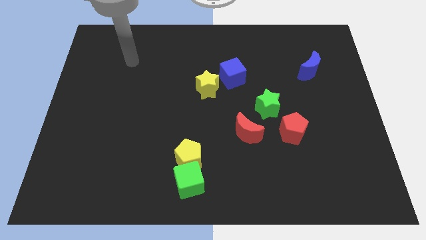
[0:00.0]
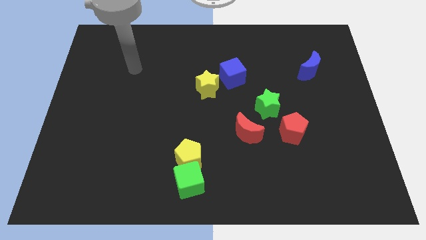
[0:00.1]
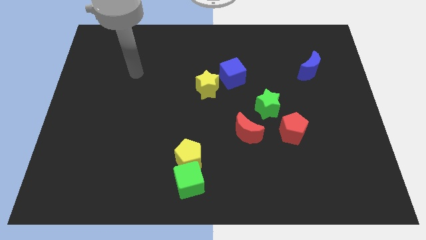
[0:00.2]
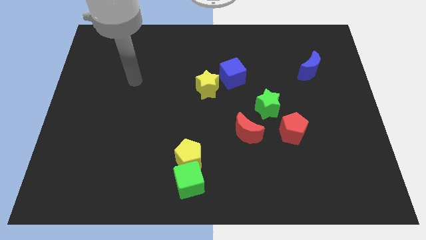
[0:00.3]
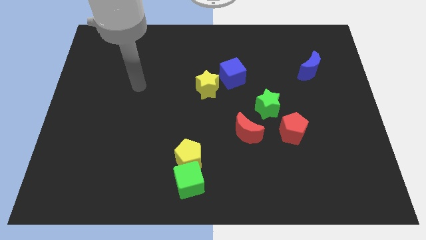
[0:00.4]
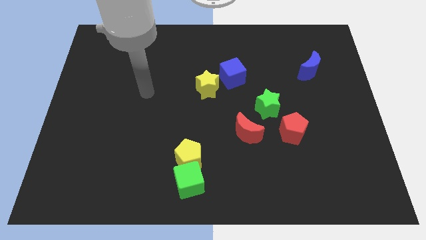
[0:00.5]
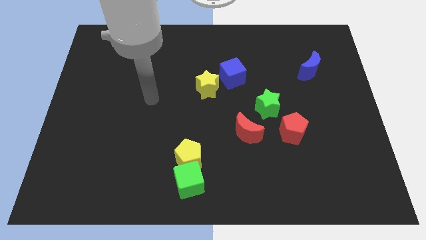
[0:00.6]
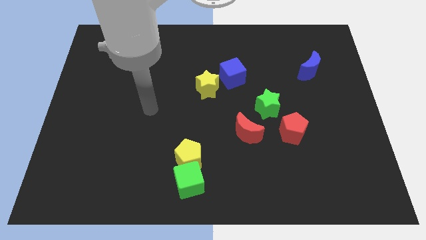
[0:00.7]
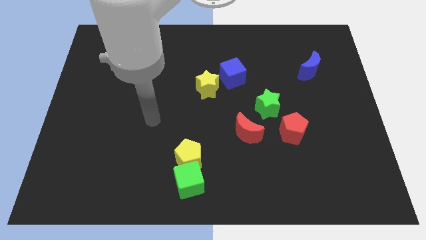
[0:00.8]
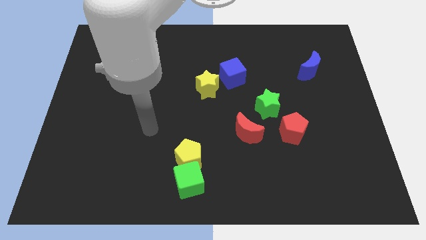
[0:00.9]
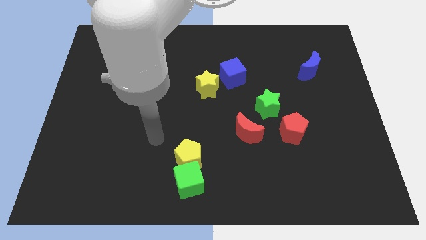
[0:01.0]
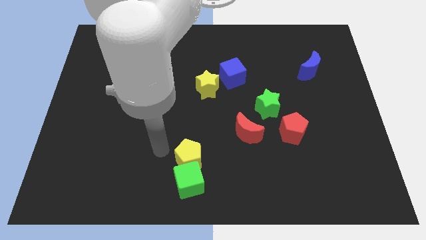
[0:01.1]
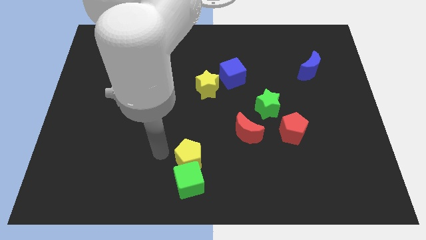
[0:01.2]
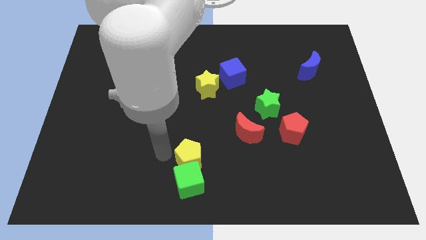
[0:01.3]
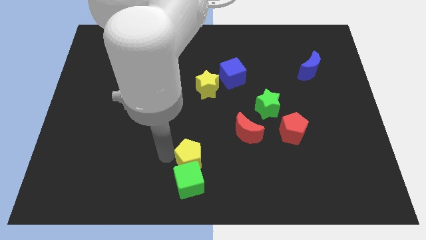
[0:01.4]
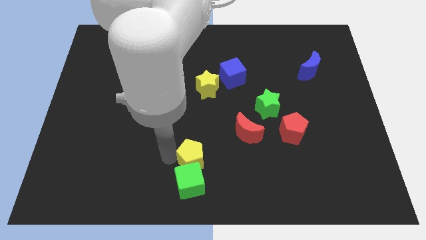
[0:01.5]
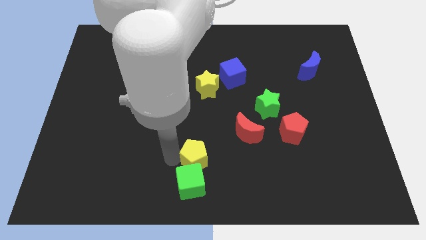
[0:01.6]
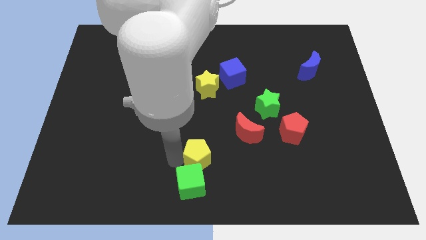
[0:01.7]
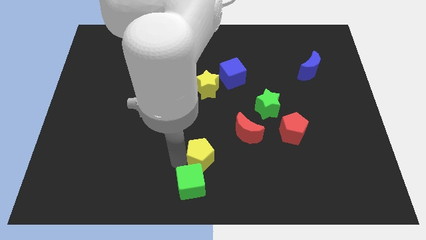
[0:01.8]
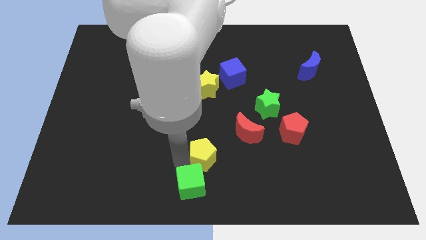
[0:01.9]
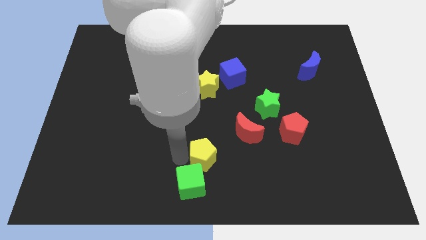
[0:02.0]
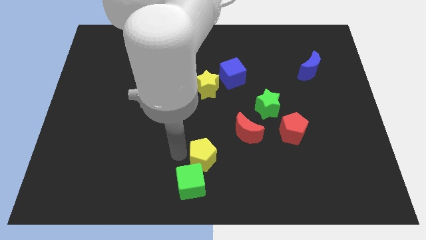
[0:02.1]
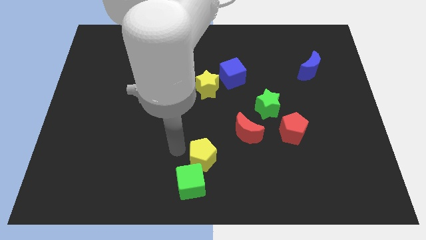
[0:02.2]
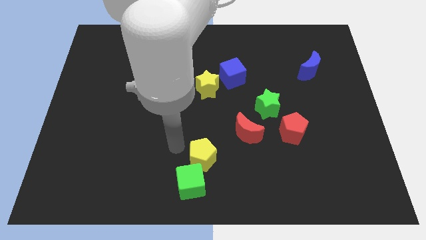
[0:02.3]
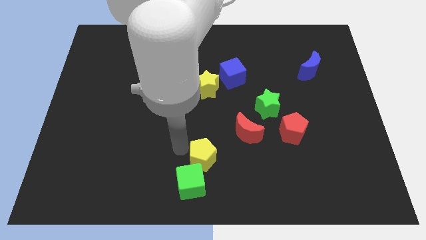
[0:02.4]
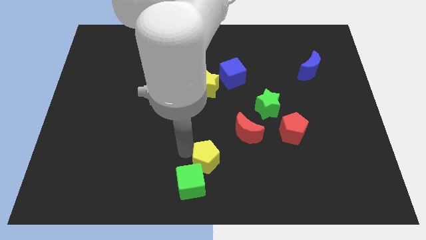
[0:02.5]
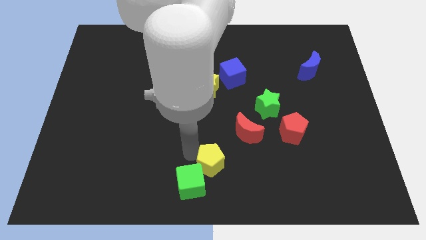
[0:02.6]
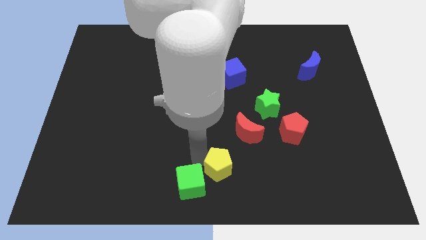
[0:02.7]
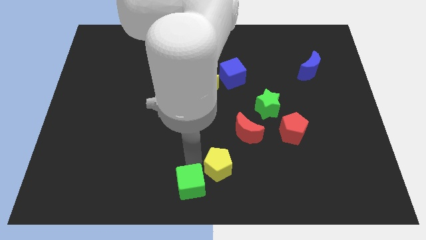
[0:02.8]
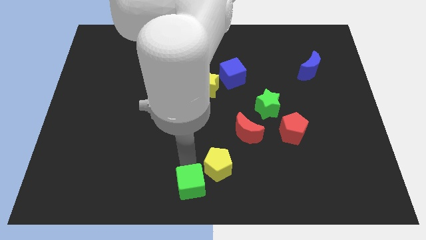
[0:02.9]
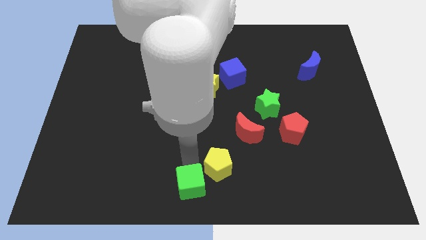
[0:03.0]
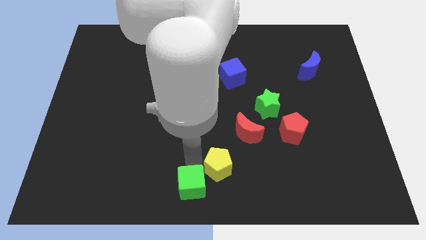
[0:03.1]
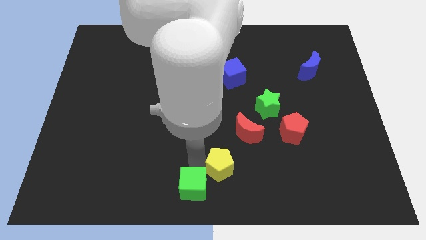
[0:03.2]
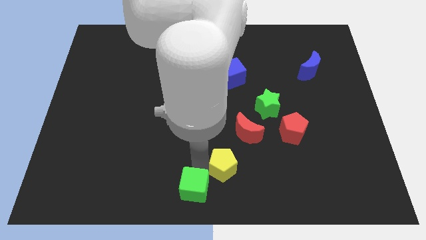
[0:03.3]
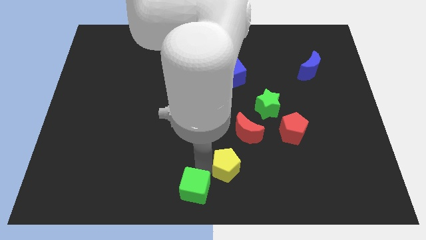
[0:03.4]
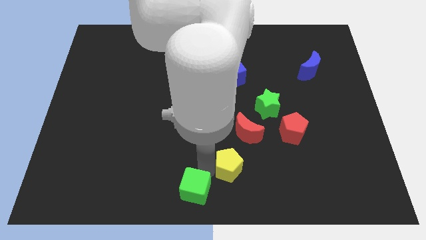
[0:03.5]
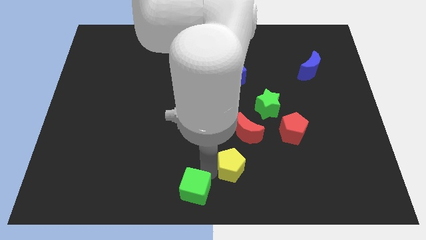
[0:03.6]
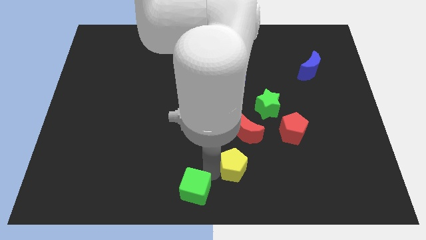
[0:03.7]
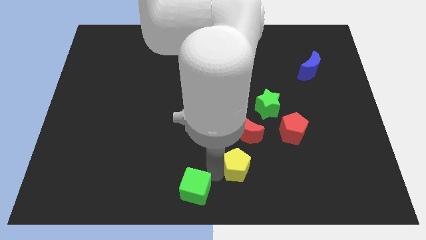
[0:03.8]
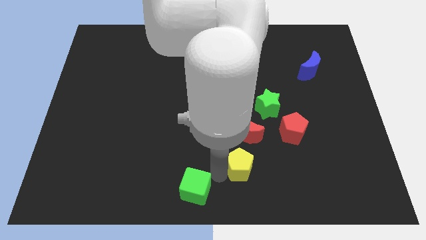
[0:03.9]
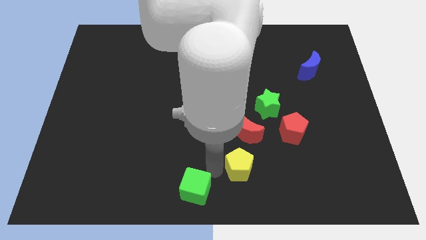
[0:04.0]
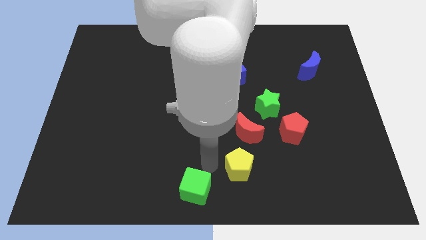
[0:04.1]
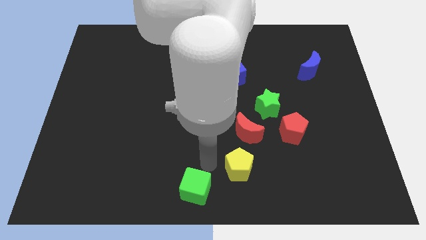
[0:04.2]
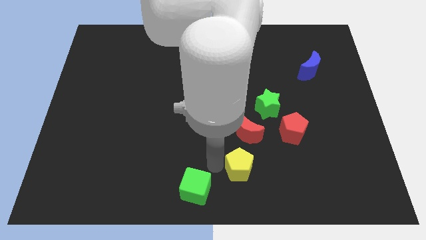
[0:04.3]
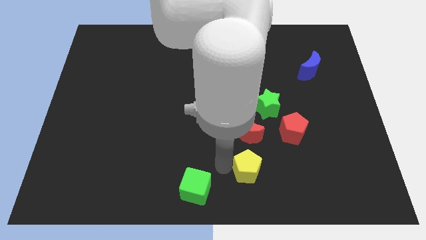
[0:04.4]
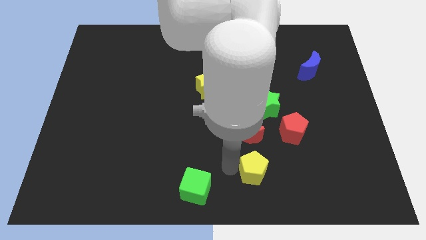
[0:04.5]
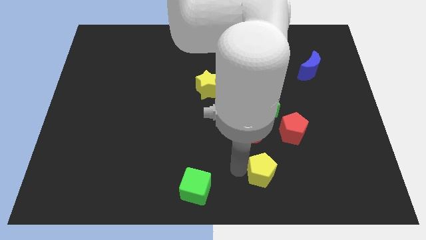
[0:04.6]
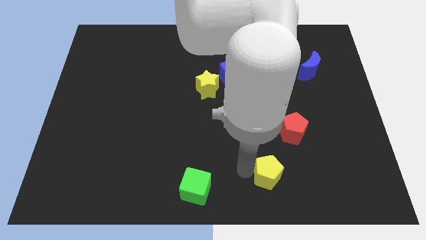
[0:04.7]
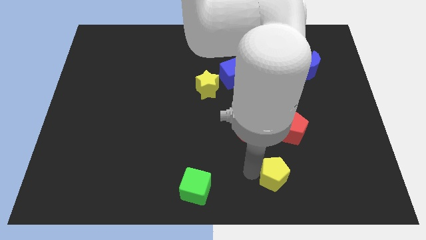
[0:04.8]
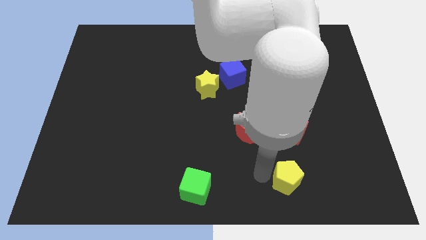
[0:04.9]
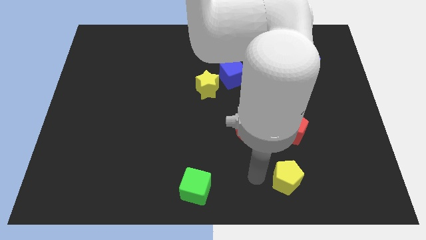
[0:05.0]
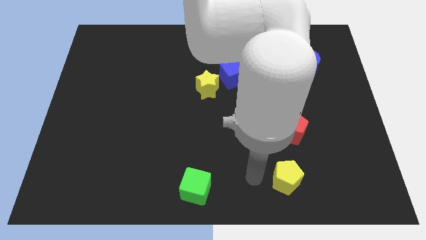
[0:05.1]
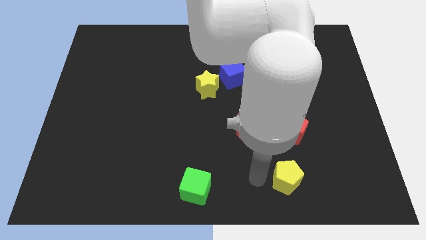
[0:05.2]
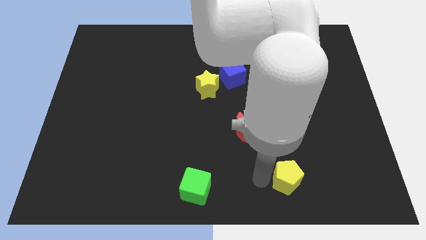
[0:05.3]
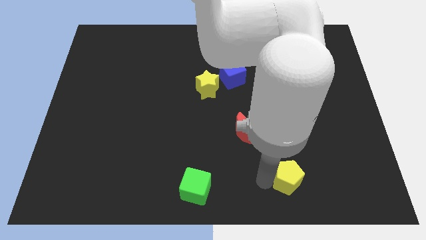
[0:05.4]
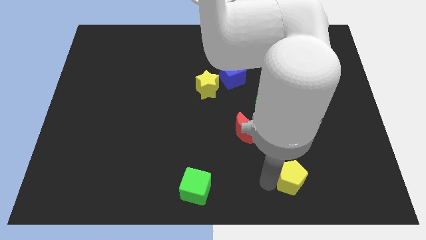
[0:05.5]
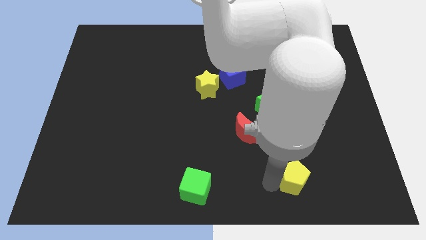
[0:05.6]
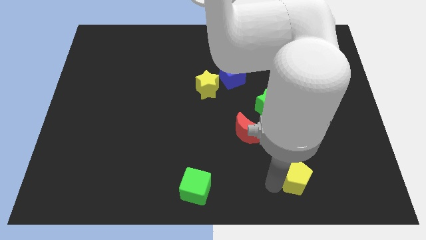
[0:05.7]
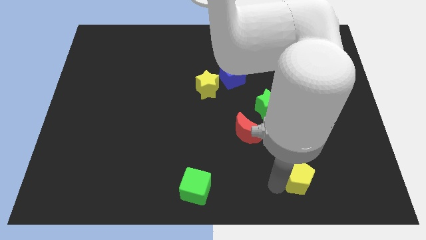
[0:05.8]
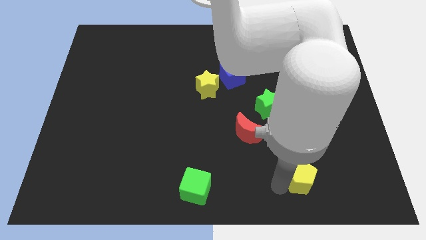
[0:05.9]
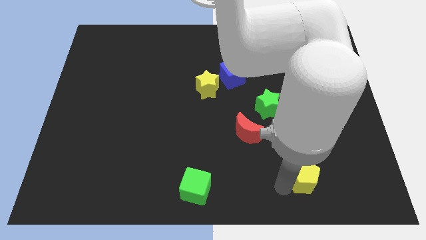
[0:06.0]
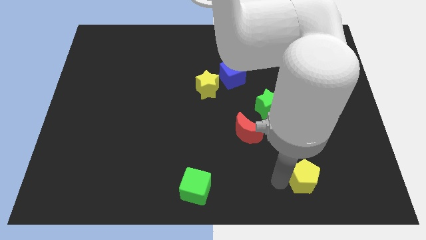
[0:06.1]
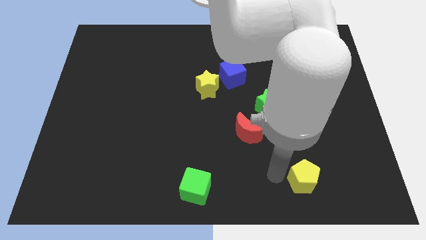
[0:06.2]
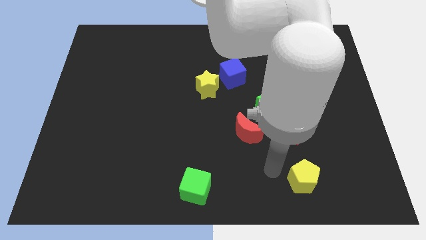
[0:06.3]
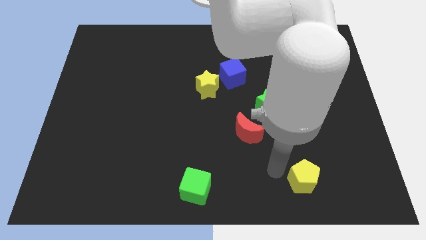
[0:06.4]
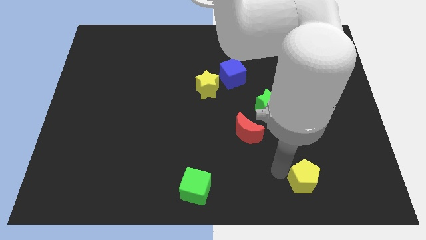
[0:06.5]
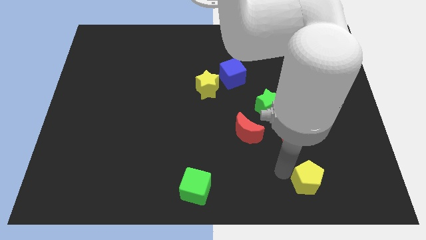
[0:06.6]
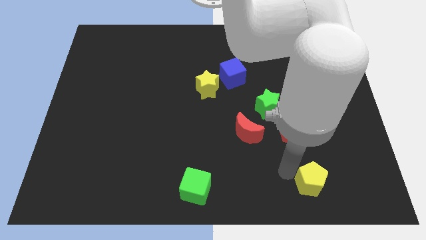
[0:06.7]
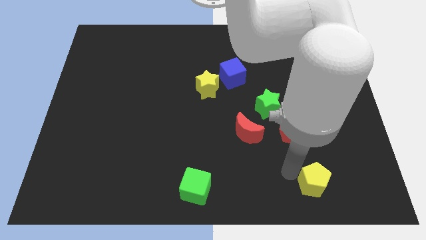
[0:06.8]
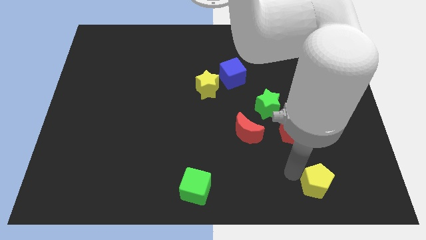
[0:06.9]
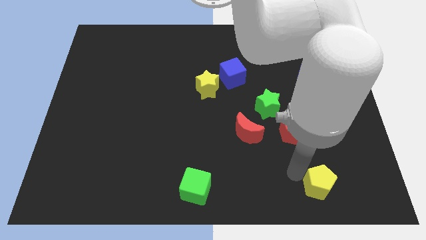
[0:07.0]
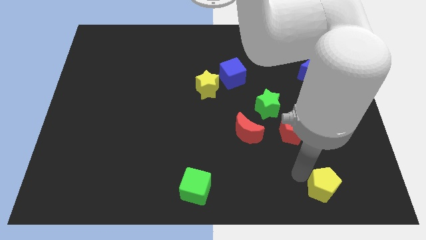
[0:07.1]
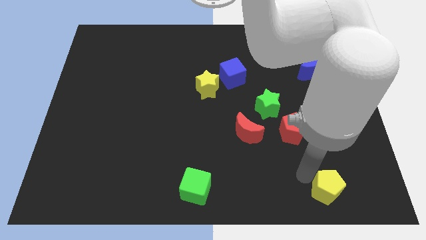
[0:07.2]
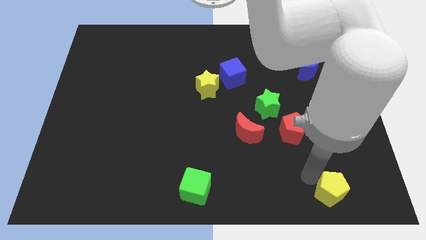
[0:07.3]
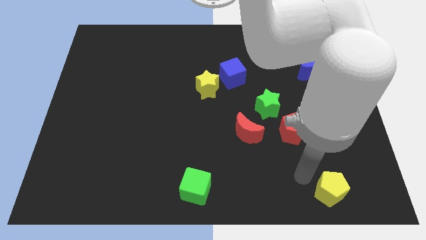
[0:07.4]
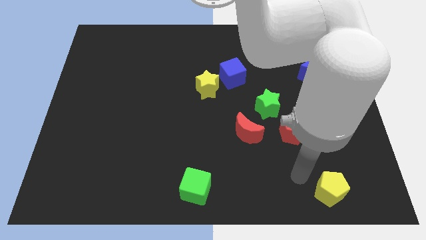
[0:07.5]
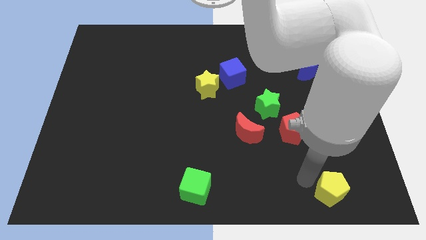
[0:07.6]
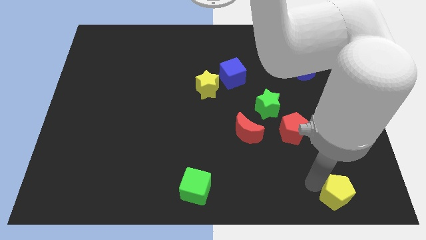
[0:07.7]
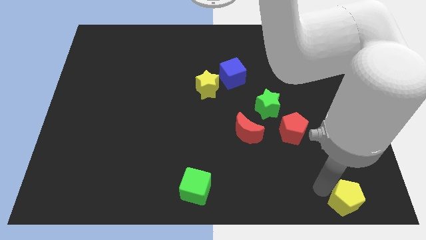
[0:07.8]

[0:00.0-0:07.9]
put the yellow pentagon to the lower right corner

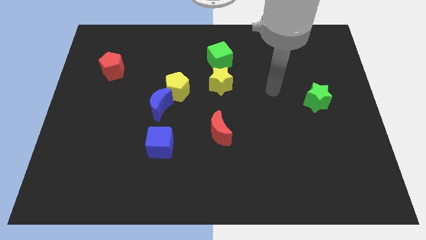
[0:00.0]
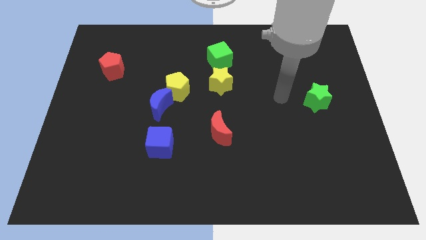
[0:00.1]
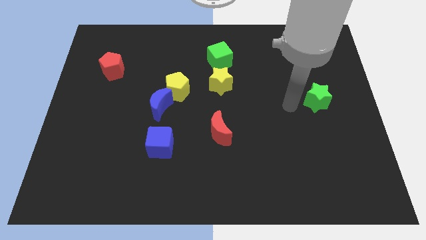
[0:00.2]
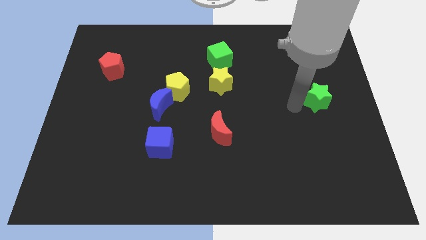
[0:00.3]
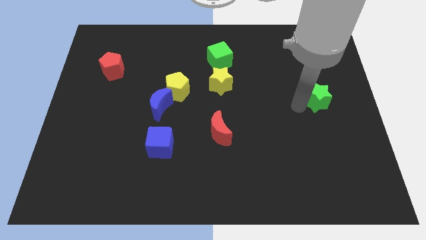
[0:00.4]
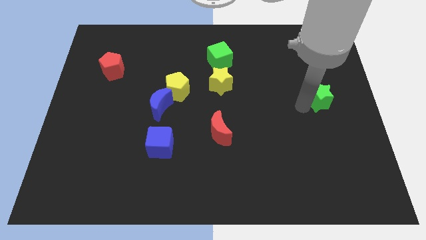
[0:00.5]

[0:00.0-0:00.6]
put the green star to the right side of the board
